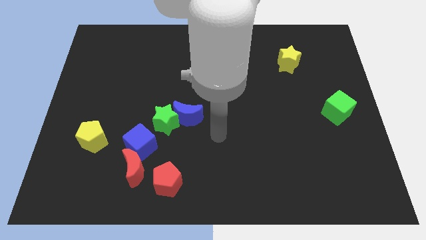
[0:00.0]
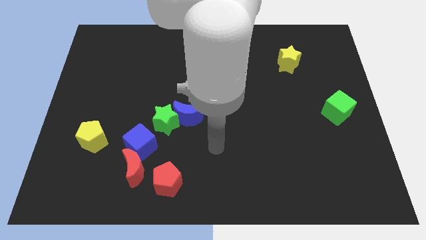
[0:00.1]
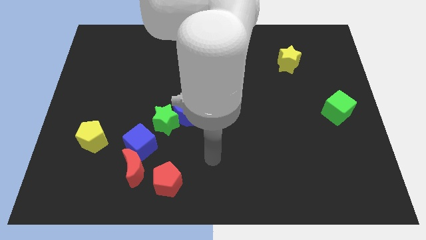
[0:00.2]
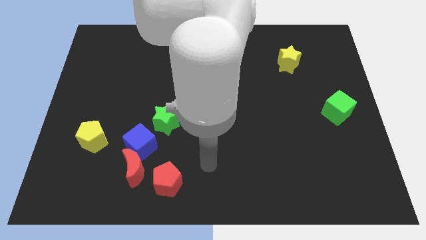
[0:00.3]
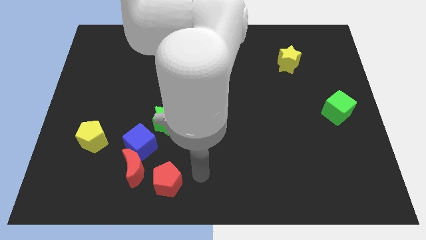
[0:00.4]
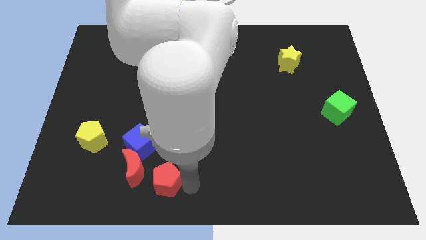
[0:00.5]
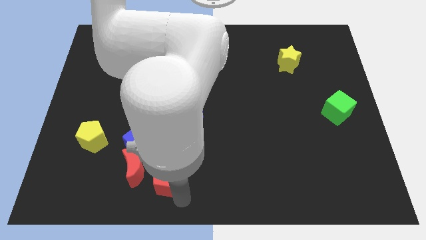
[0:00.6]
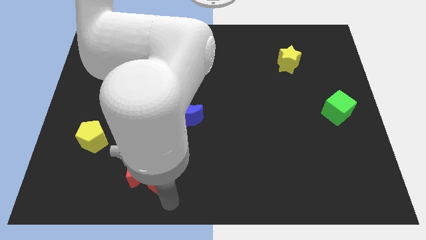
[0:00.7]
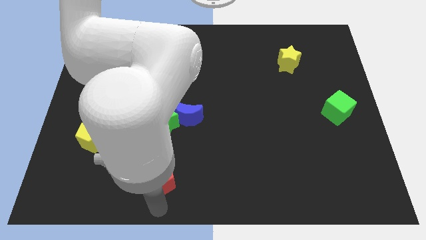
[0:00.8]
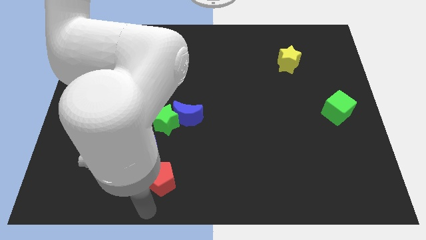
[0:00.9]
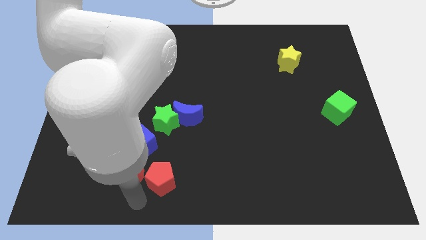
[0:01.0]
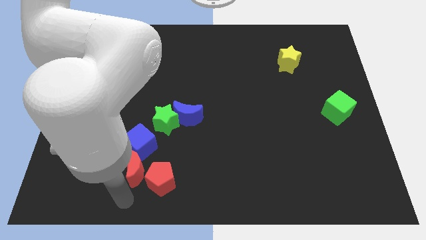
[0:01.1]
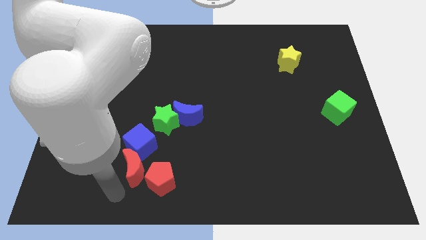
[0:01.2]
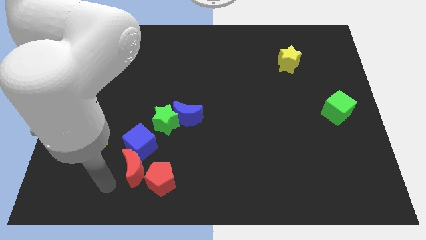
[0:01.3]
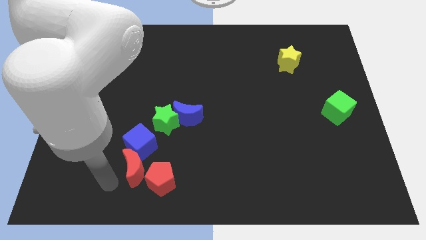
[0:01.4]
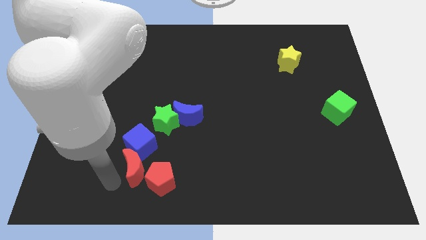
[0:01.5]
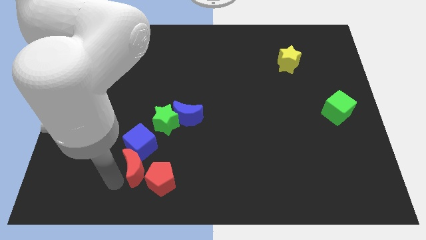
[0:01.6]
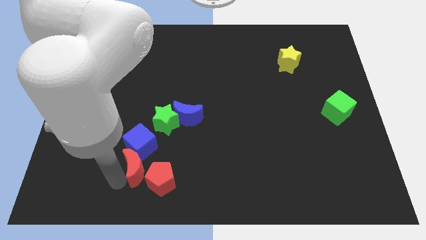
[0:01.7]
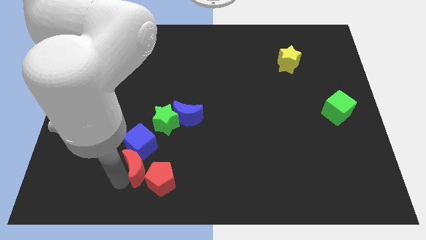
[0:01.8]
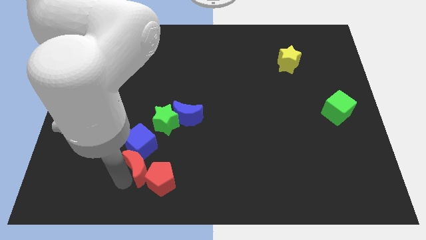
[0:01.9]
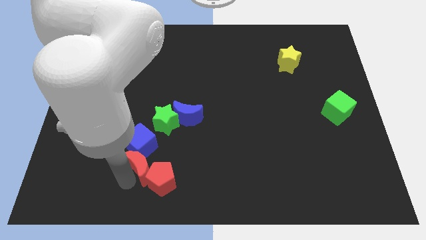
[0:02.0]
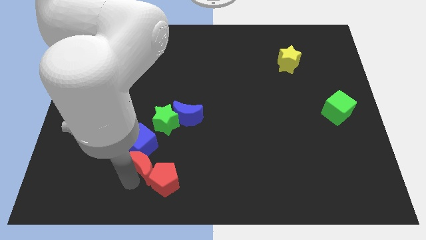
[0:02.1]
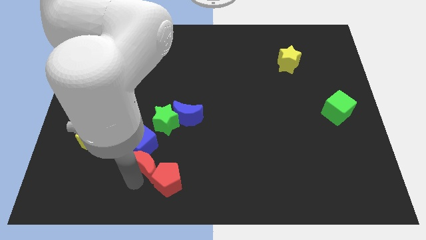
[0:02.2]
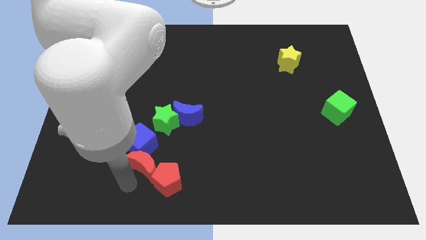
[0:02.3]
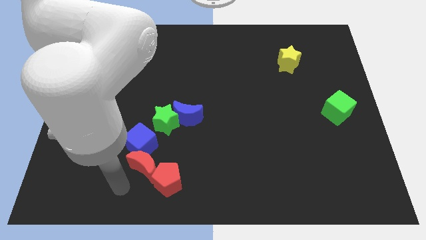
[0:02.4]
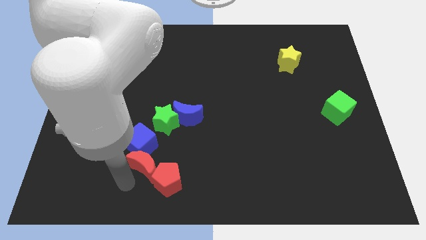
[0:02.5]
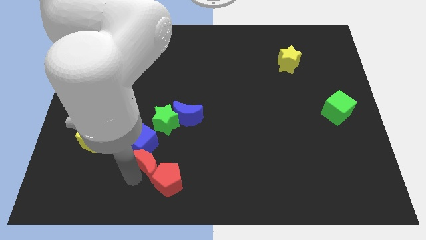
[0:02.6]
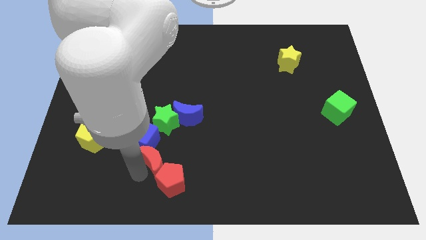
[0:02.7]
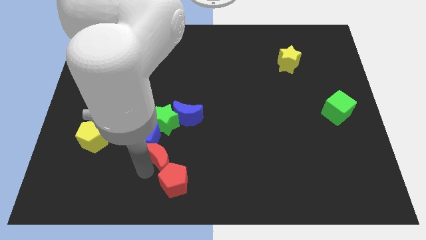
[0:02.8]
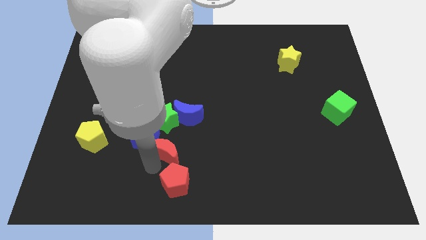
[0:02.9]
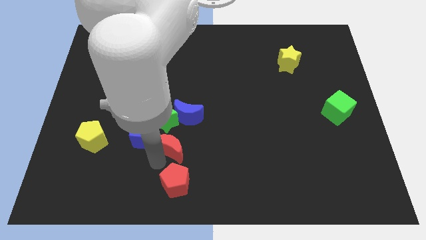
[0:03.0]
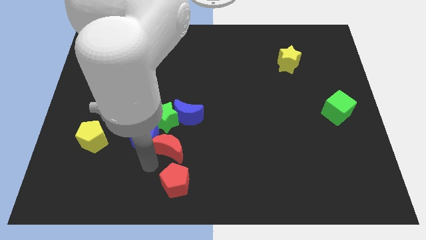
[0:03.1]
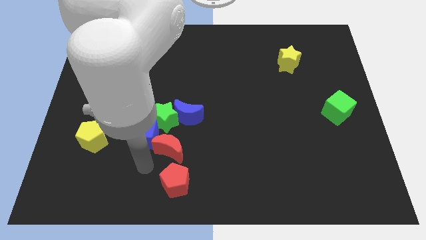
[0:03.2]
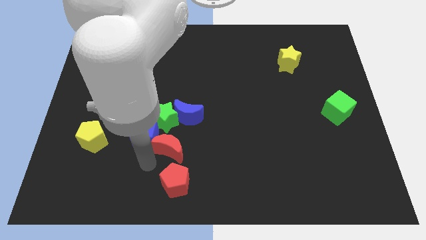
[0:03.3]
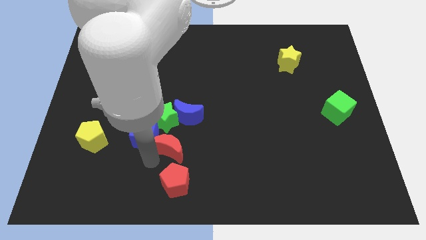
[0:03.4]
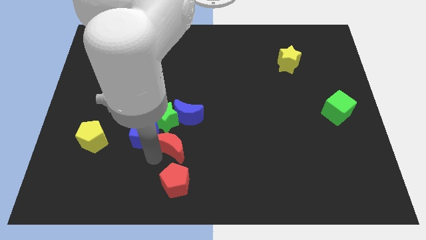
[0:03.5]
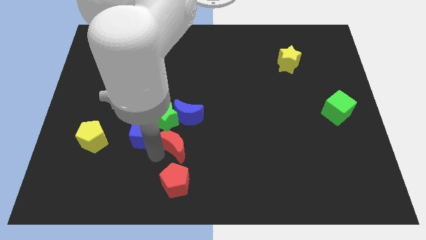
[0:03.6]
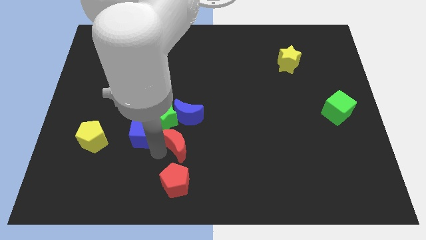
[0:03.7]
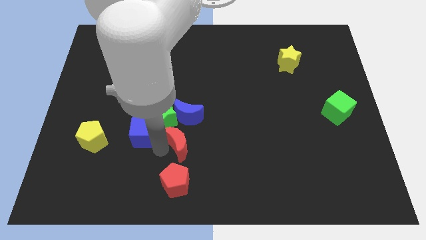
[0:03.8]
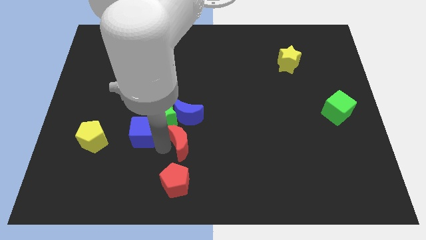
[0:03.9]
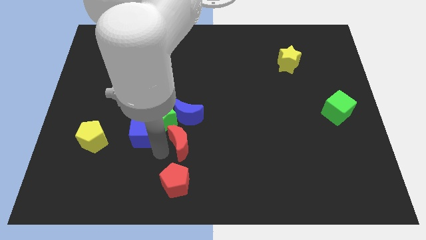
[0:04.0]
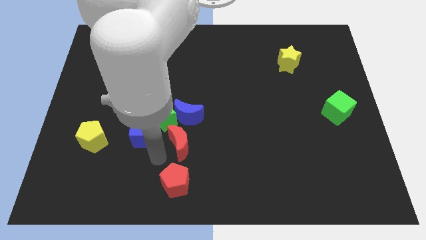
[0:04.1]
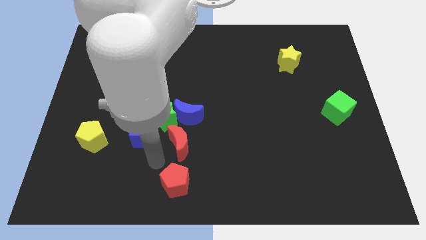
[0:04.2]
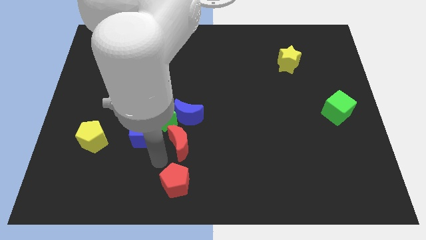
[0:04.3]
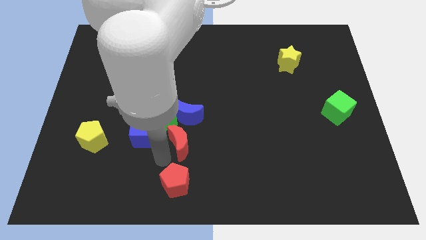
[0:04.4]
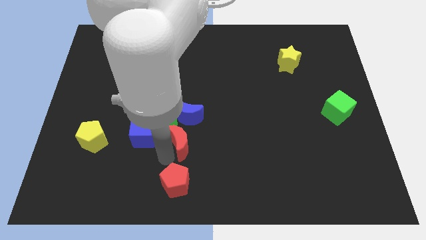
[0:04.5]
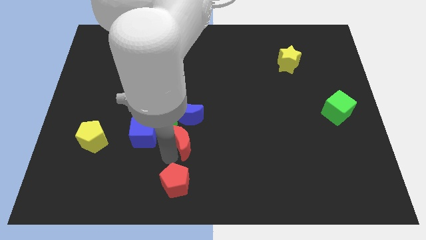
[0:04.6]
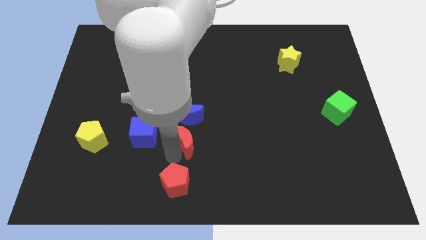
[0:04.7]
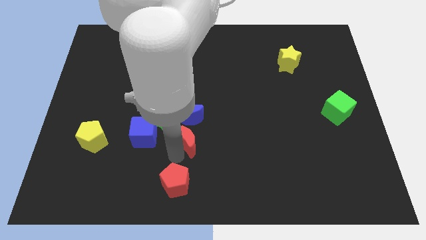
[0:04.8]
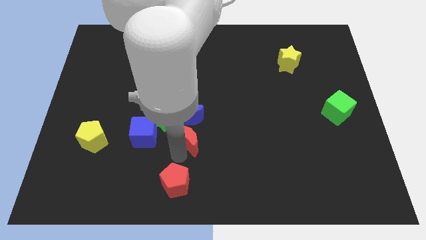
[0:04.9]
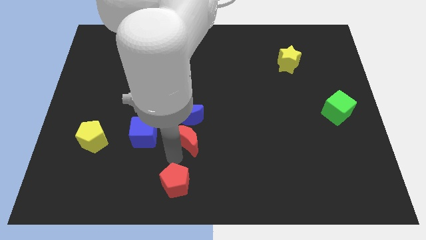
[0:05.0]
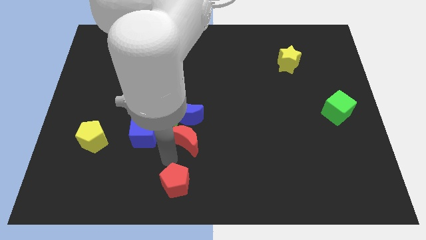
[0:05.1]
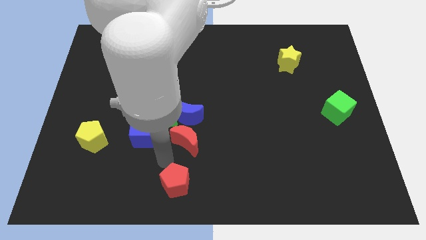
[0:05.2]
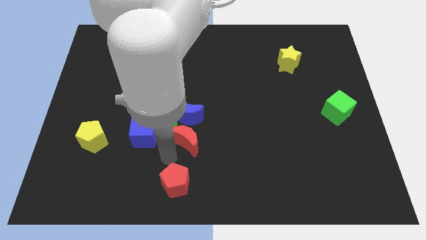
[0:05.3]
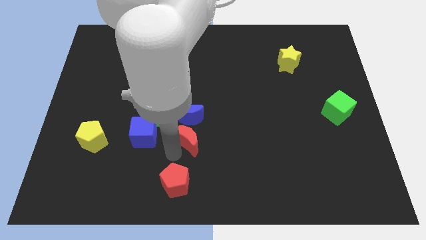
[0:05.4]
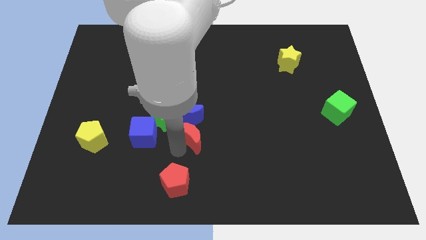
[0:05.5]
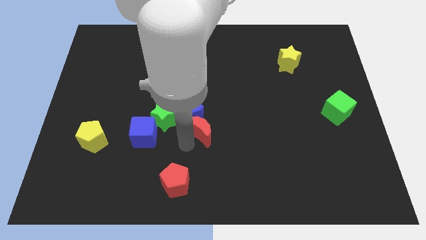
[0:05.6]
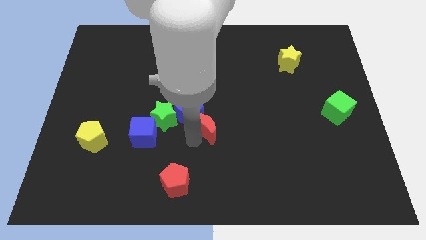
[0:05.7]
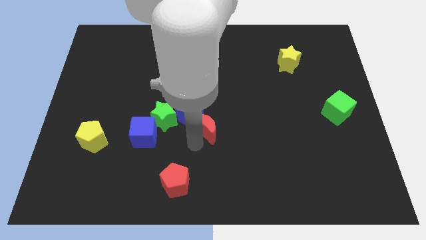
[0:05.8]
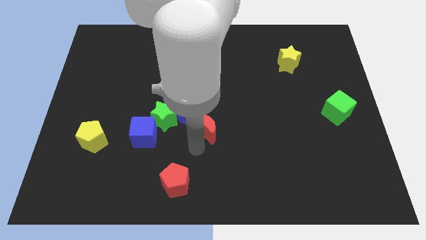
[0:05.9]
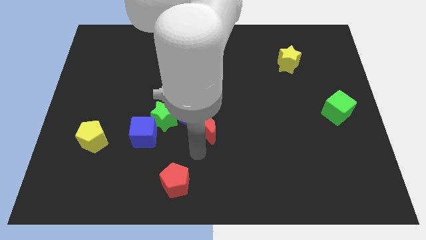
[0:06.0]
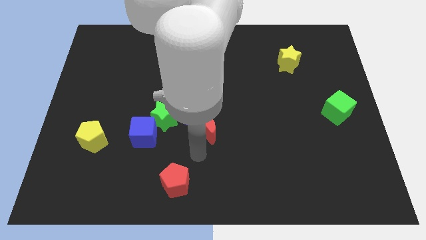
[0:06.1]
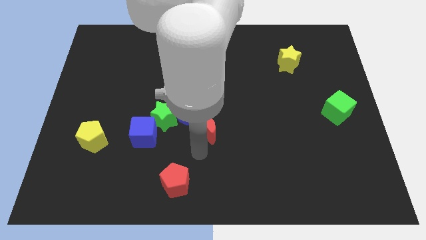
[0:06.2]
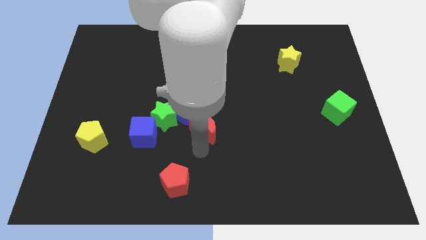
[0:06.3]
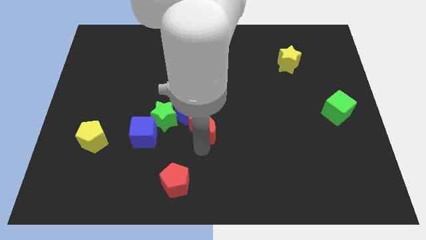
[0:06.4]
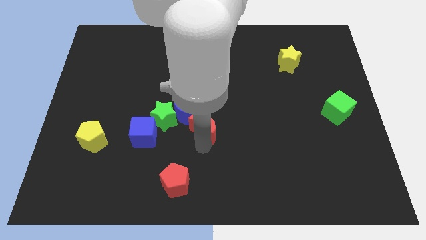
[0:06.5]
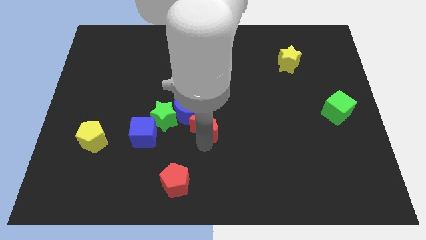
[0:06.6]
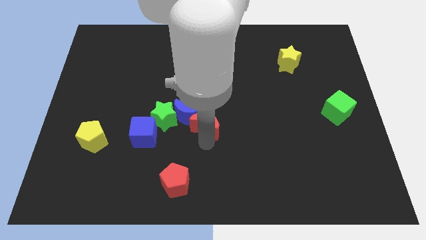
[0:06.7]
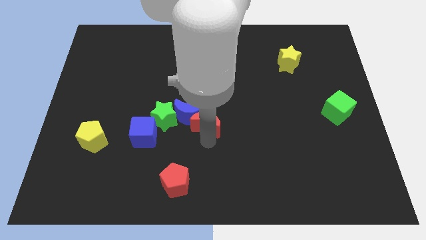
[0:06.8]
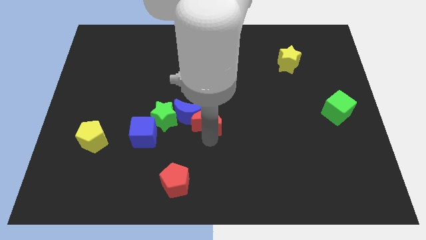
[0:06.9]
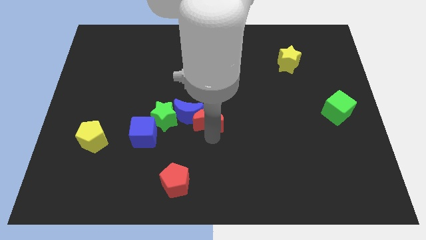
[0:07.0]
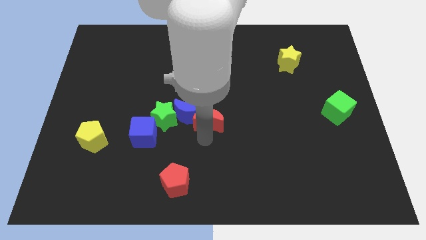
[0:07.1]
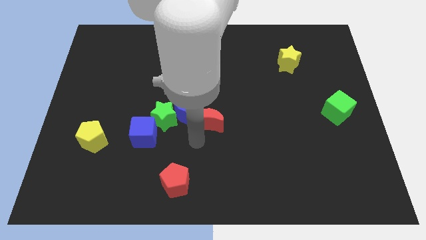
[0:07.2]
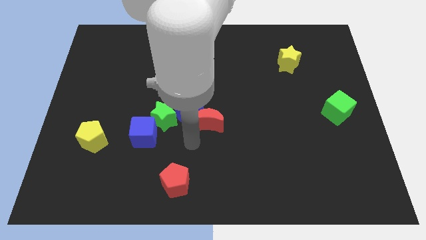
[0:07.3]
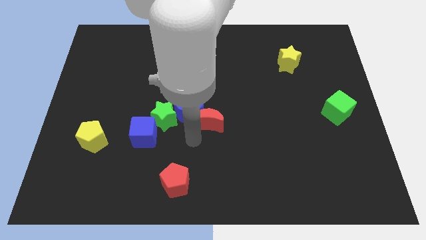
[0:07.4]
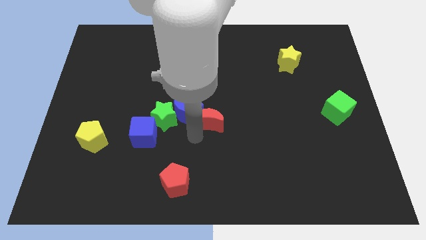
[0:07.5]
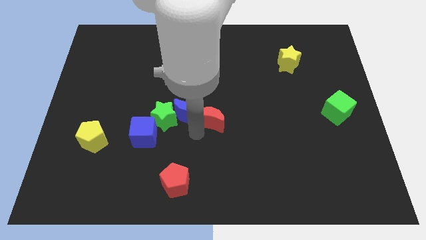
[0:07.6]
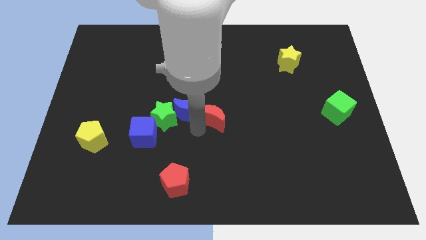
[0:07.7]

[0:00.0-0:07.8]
push the red moon upwards and to the right

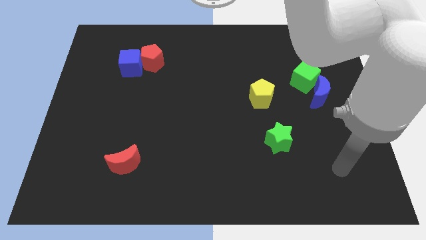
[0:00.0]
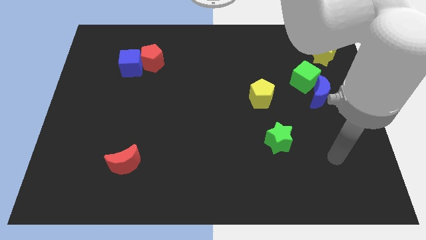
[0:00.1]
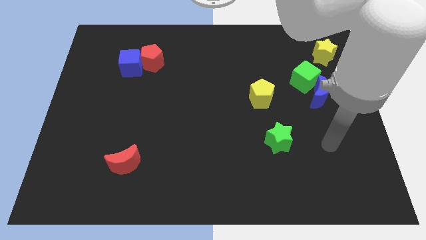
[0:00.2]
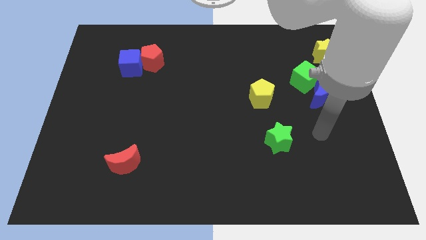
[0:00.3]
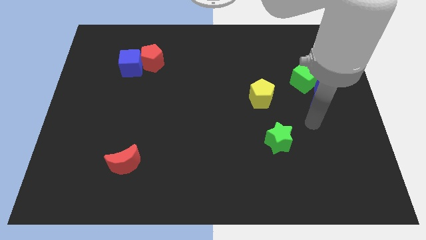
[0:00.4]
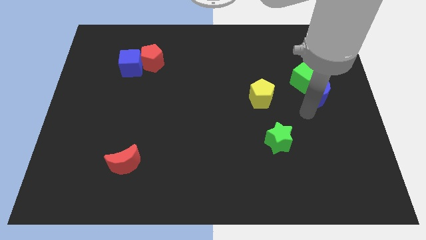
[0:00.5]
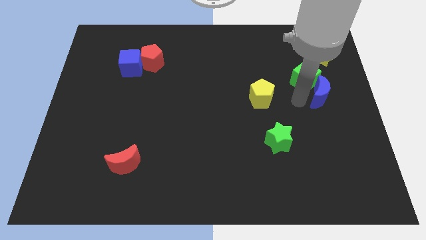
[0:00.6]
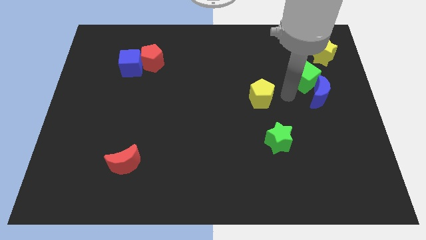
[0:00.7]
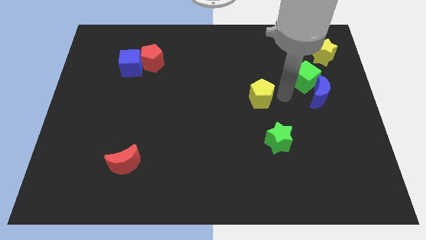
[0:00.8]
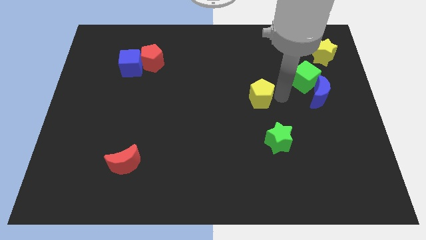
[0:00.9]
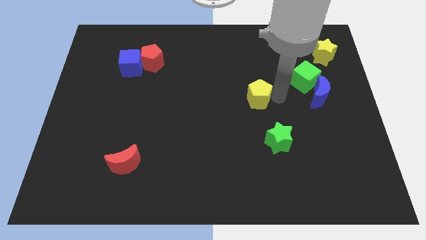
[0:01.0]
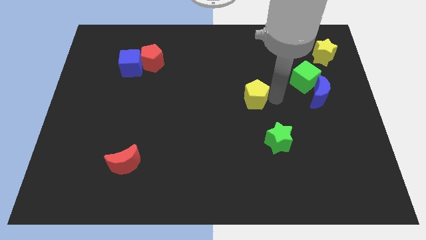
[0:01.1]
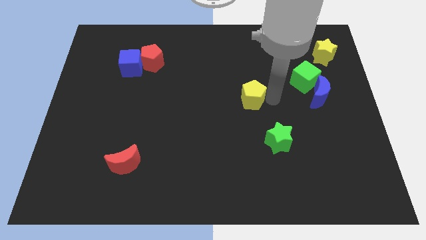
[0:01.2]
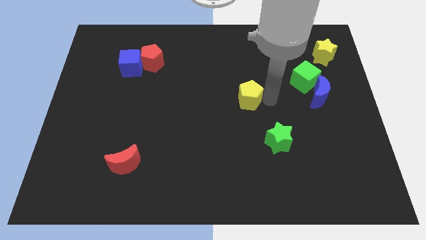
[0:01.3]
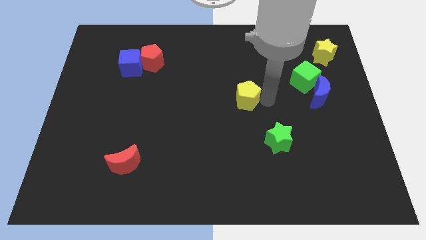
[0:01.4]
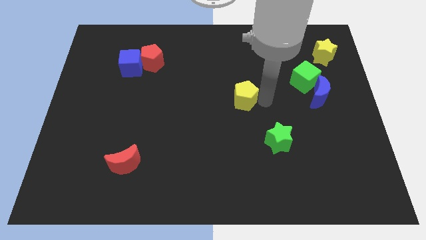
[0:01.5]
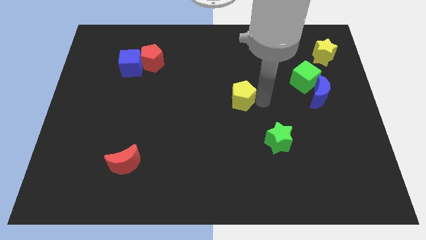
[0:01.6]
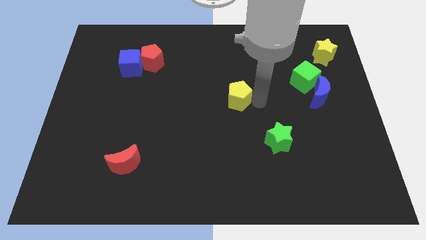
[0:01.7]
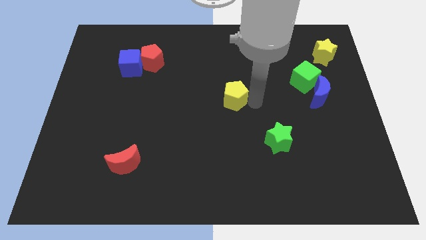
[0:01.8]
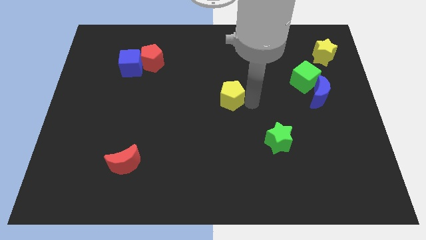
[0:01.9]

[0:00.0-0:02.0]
slightly slide the yellow pentagon to the left
